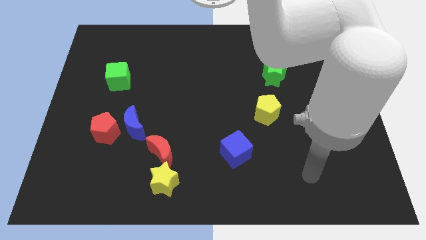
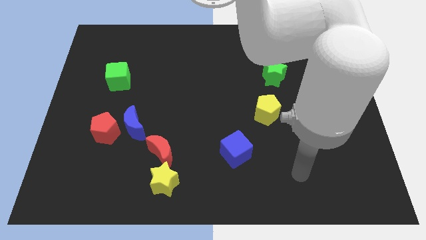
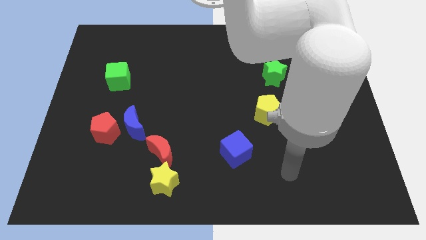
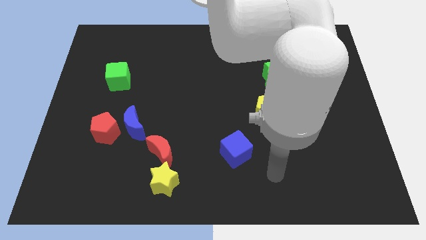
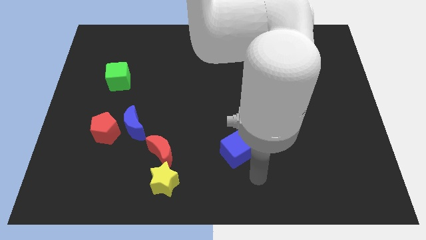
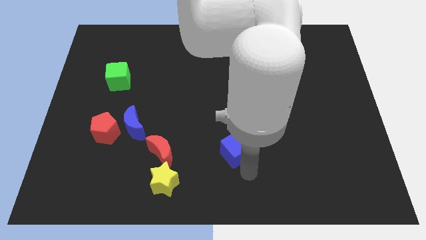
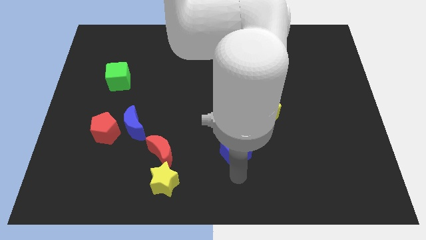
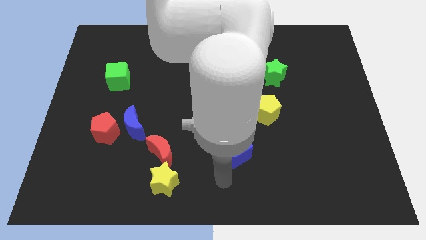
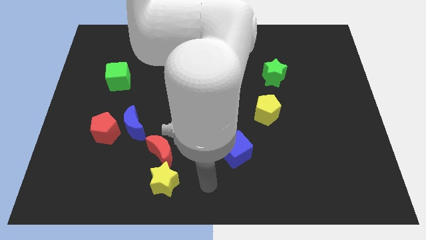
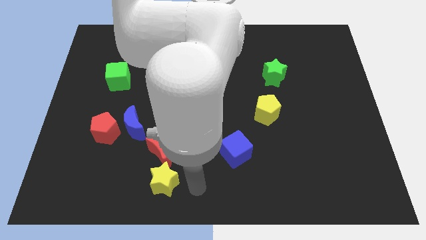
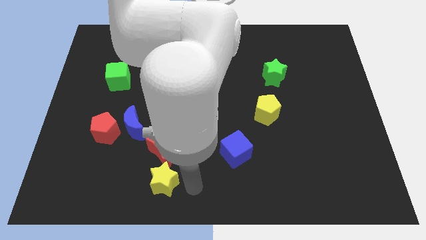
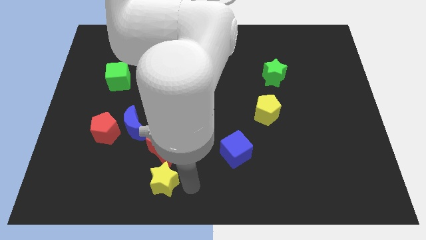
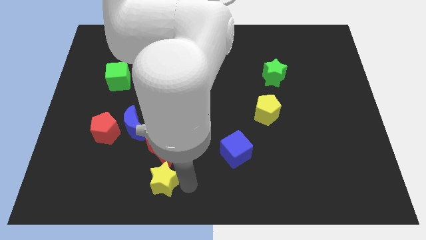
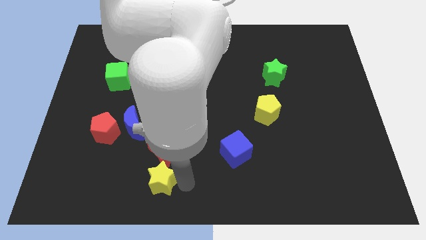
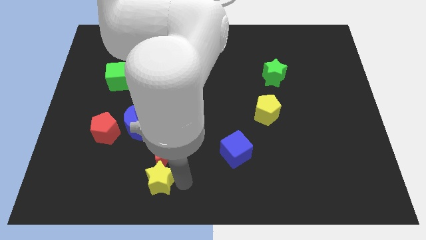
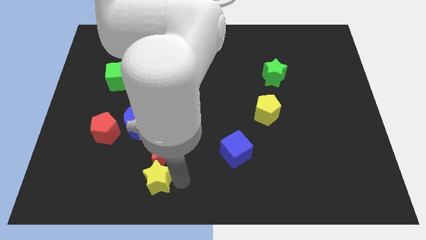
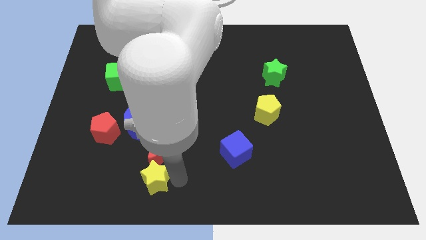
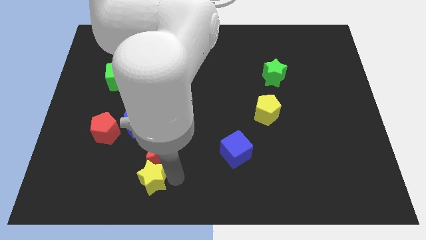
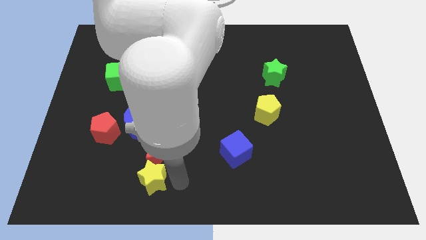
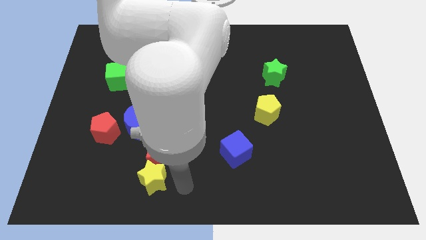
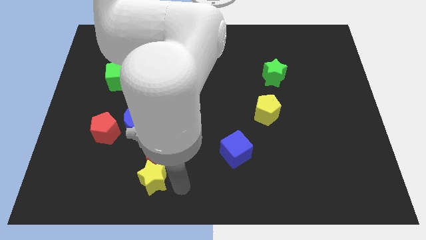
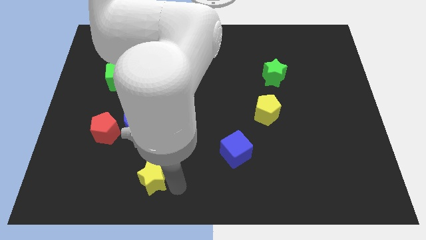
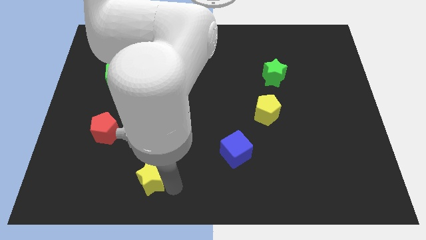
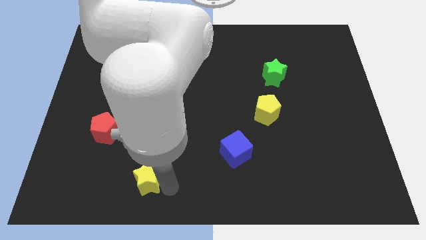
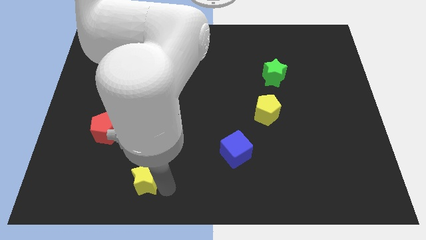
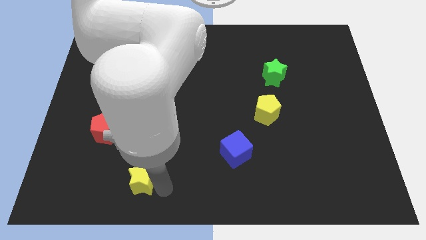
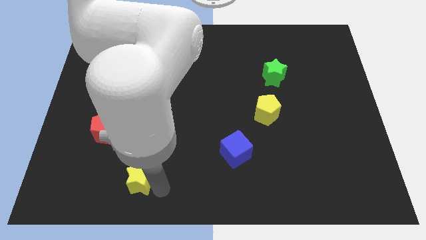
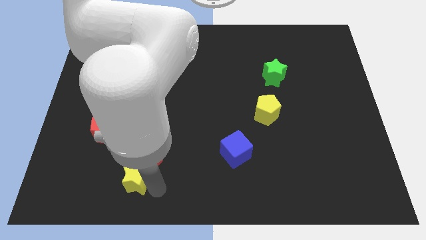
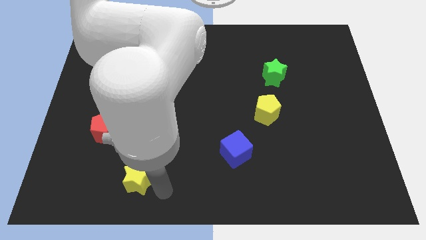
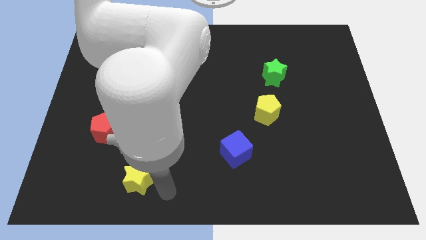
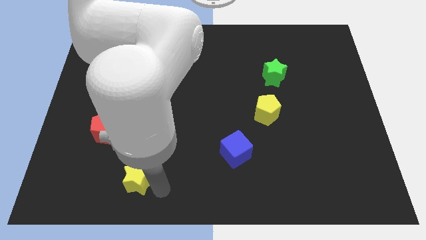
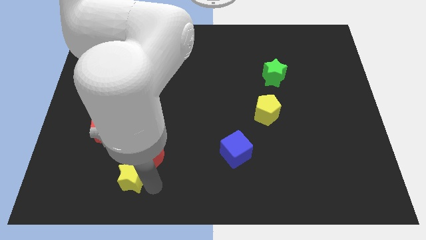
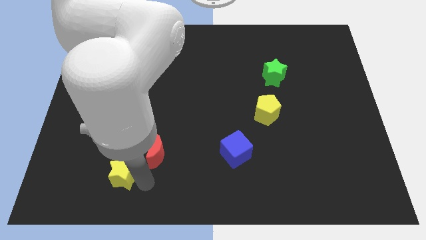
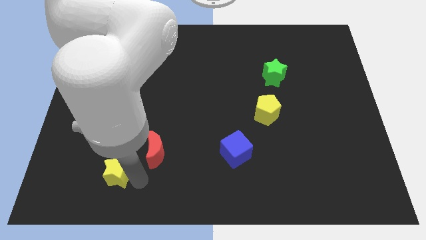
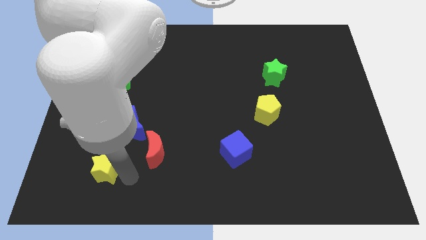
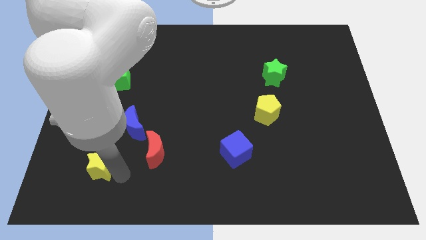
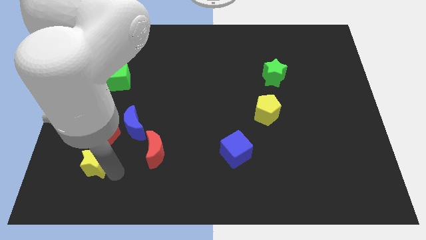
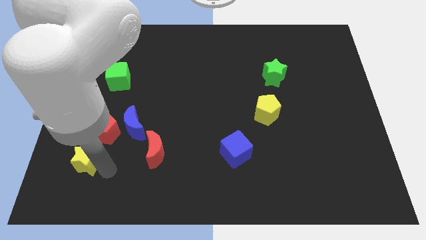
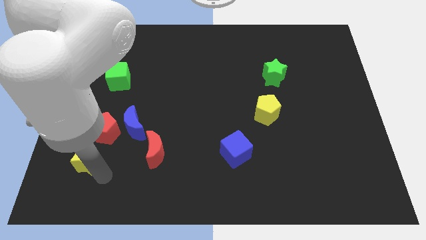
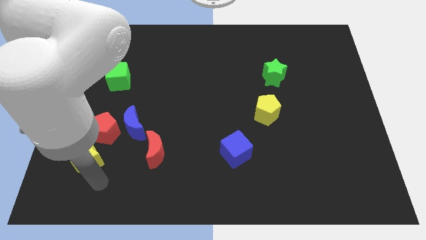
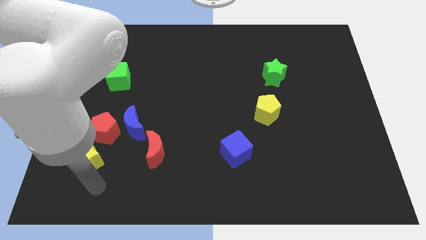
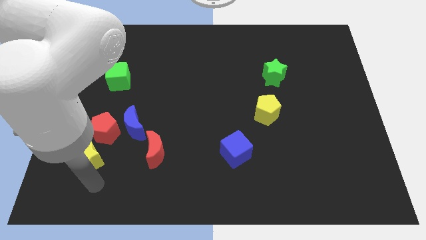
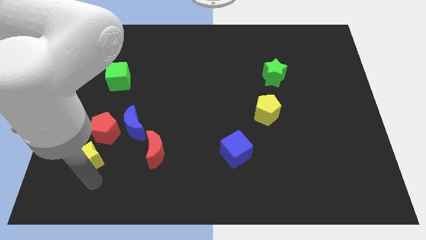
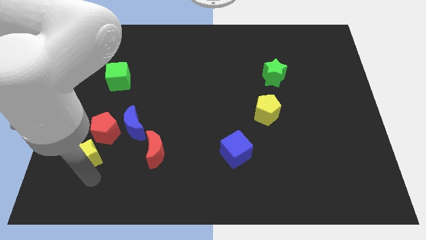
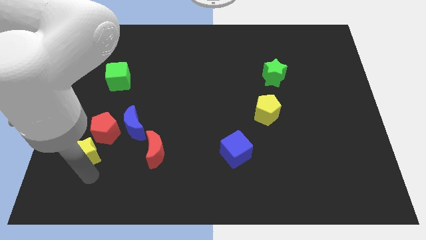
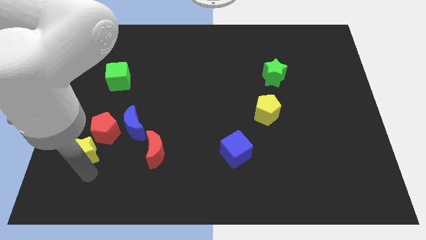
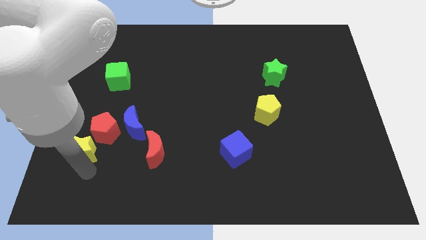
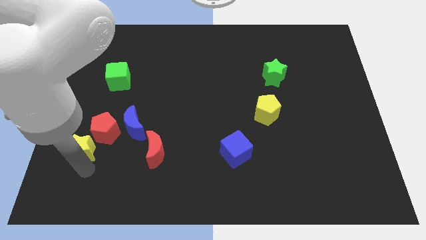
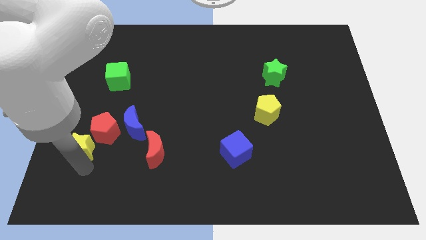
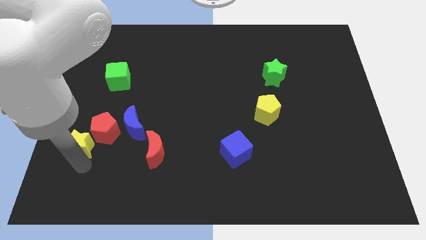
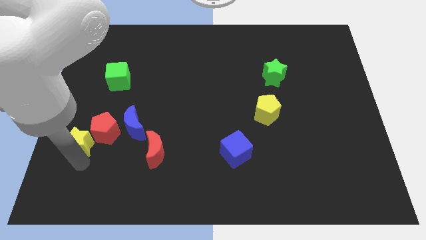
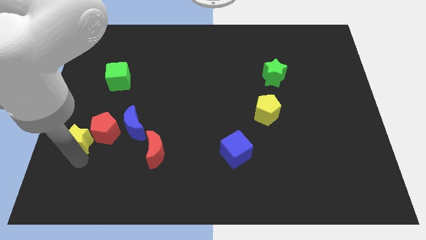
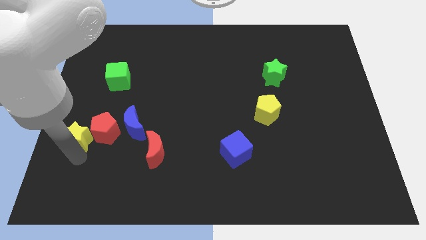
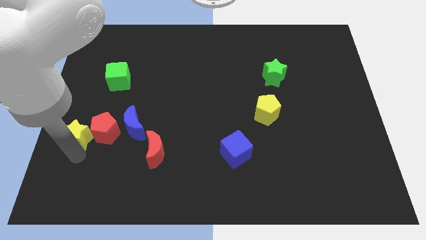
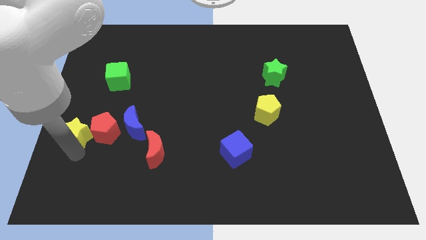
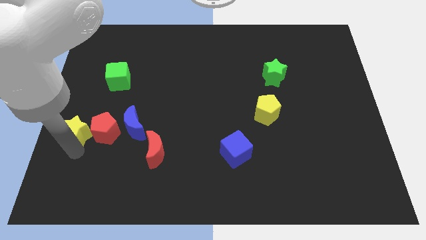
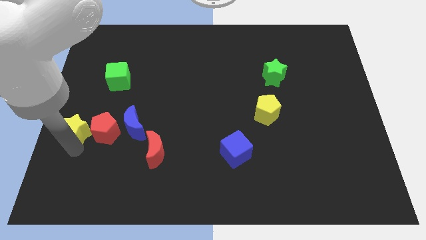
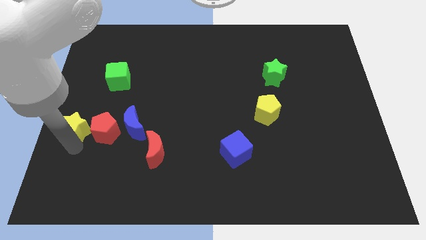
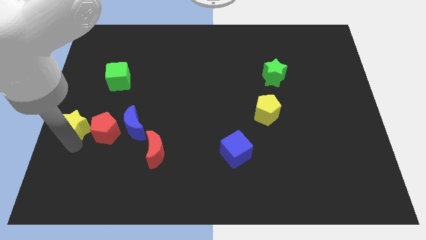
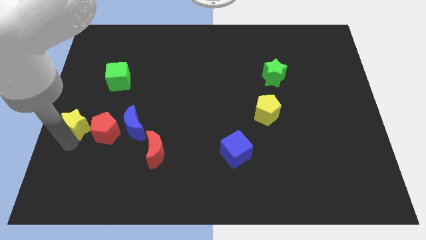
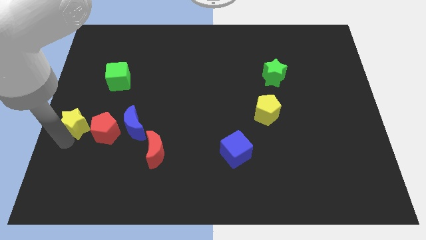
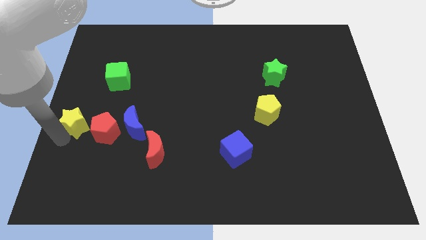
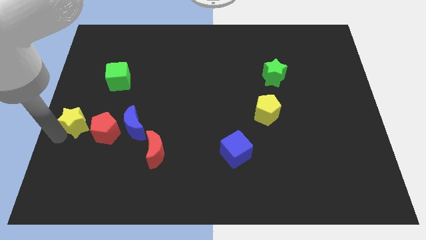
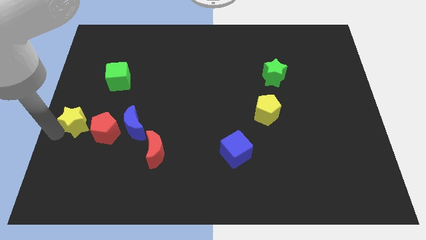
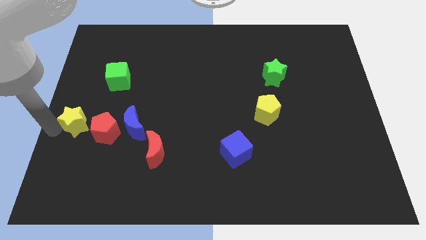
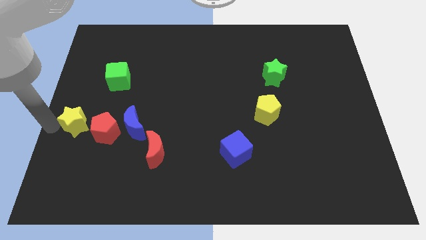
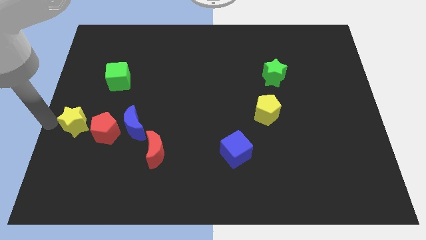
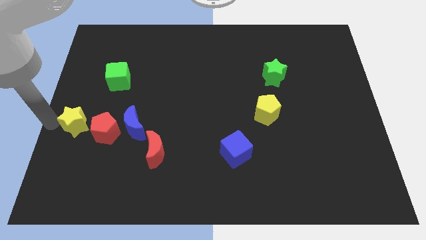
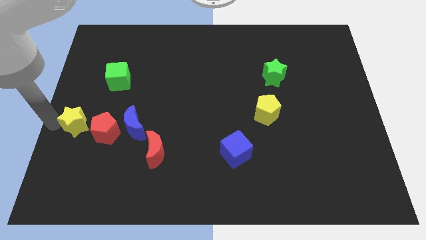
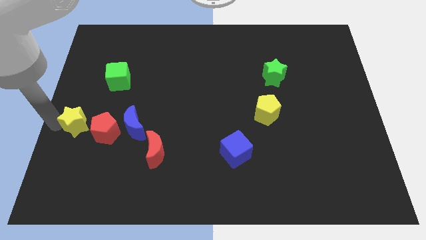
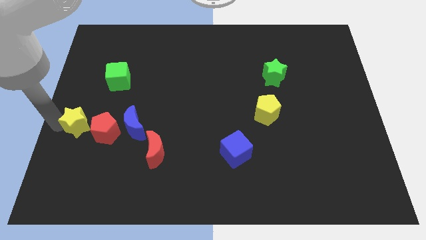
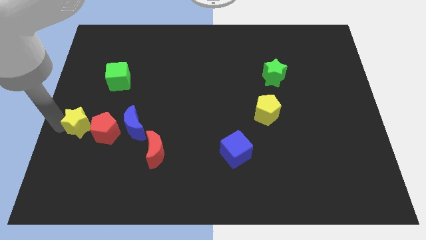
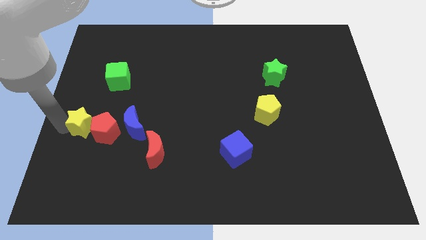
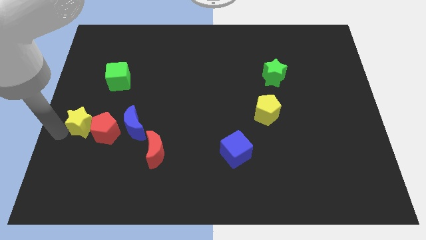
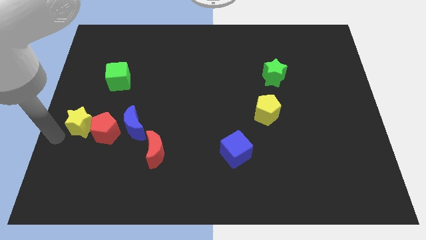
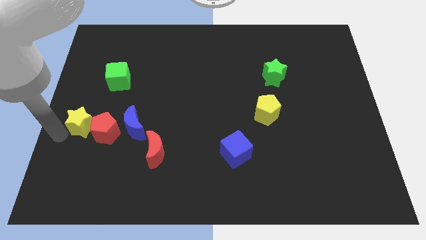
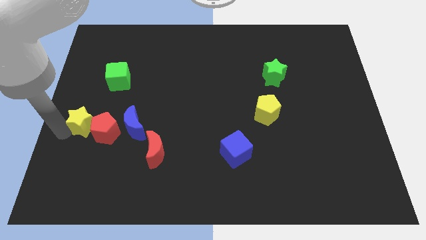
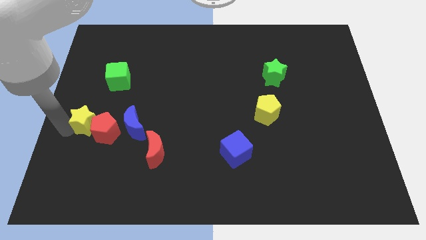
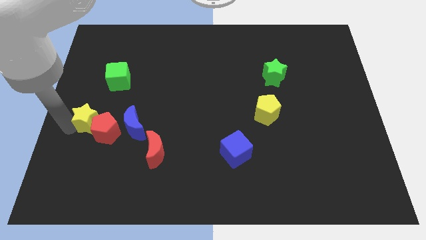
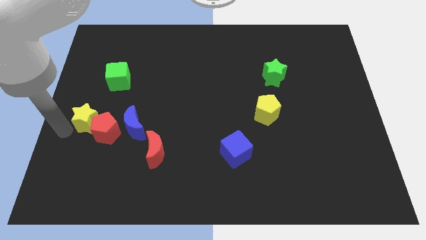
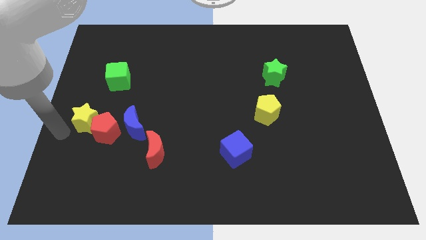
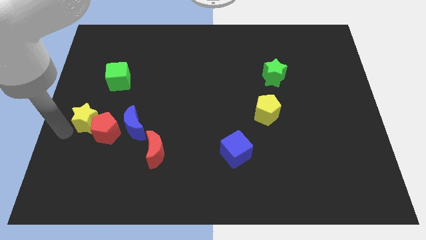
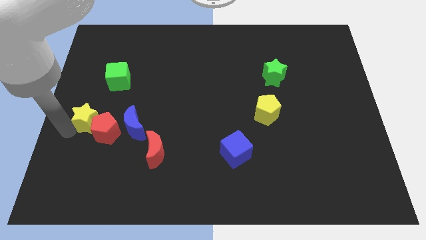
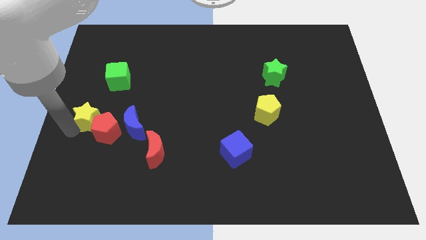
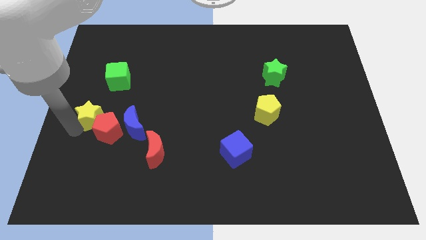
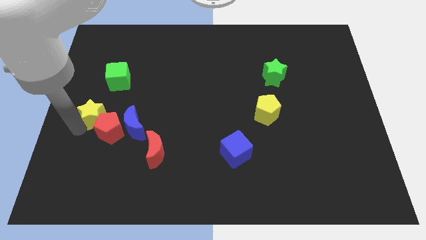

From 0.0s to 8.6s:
put the yellow star to the top left of the blue moon
